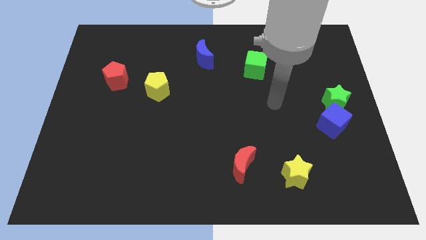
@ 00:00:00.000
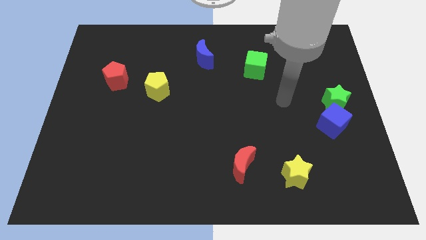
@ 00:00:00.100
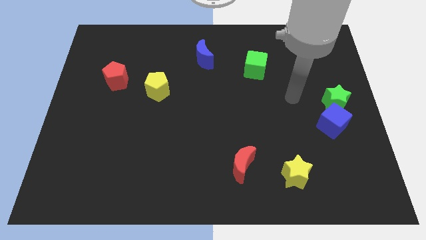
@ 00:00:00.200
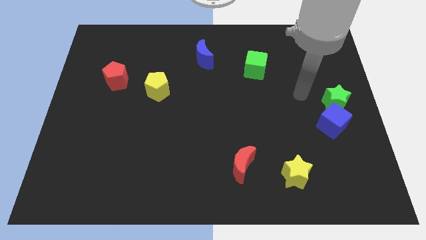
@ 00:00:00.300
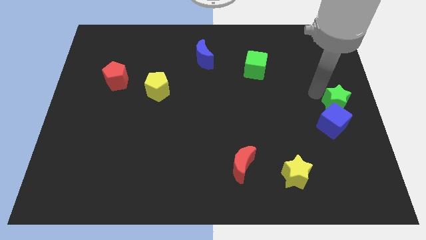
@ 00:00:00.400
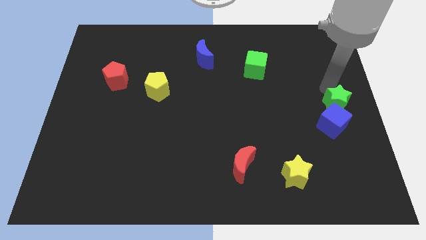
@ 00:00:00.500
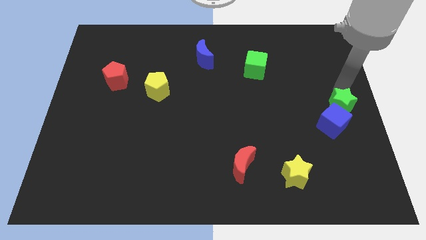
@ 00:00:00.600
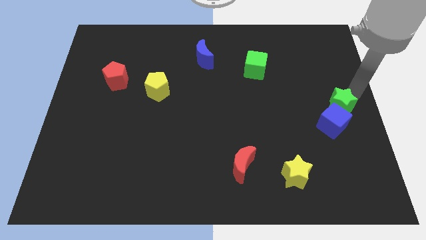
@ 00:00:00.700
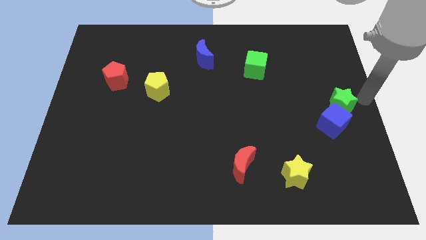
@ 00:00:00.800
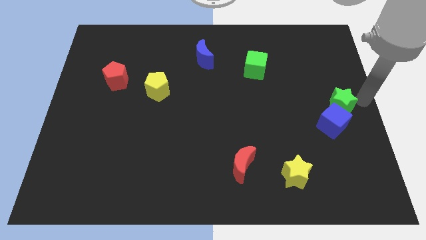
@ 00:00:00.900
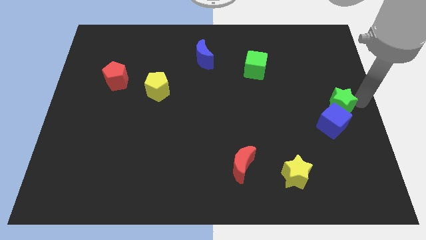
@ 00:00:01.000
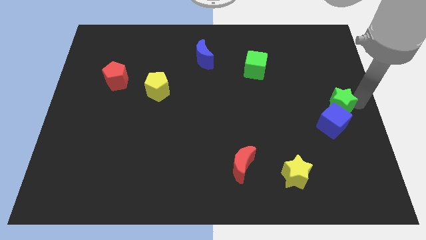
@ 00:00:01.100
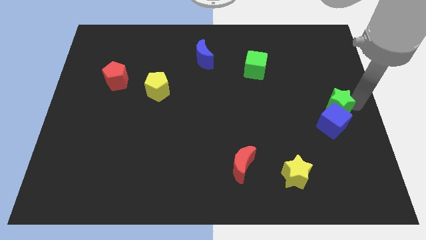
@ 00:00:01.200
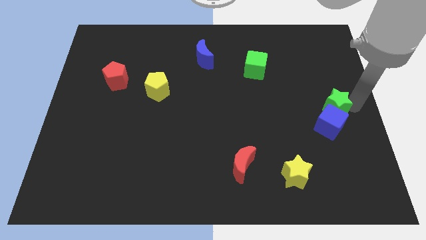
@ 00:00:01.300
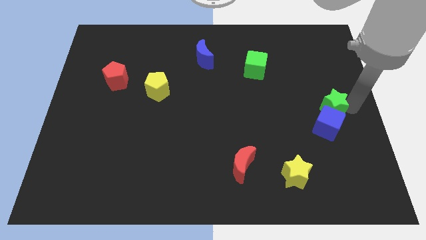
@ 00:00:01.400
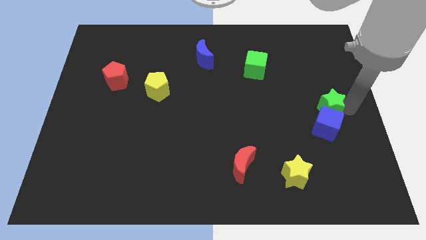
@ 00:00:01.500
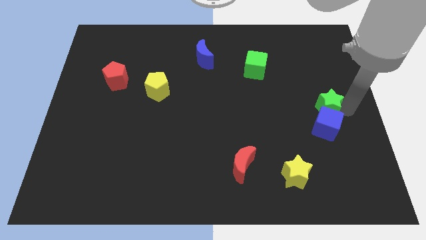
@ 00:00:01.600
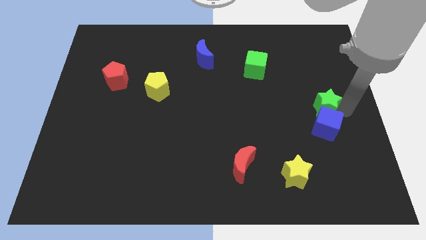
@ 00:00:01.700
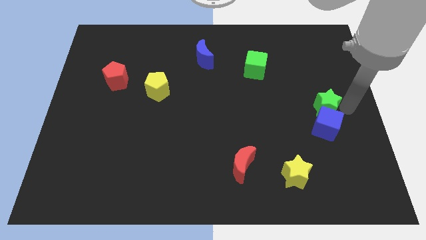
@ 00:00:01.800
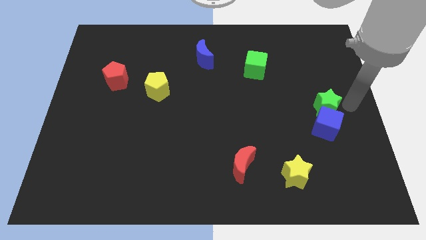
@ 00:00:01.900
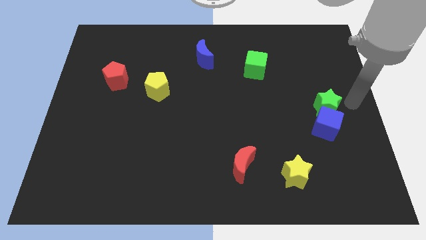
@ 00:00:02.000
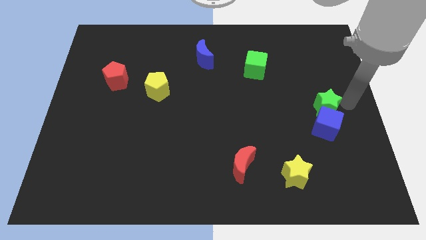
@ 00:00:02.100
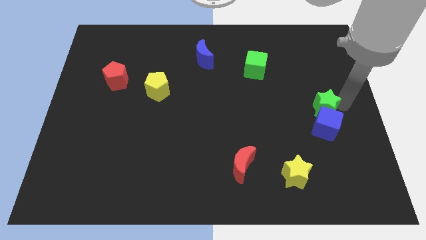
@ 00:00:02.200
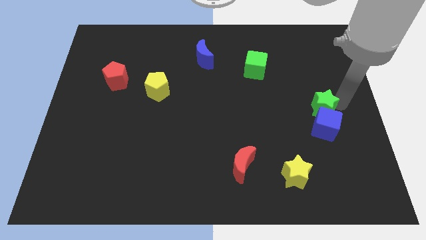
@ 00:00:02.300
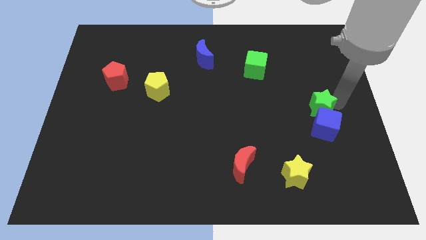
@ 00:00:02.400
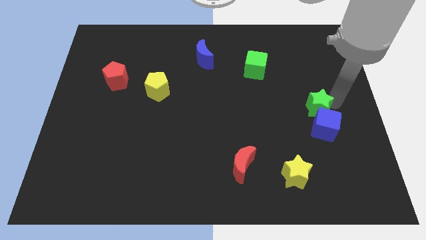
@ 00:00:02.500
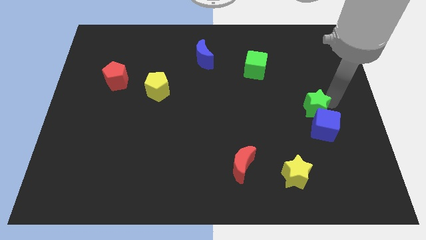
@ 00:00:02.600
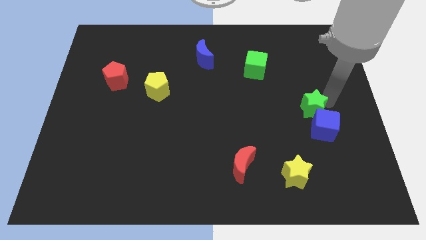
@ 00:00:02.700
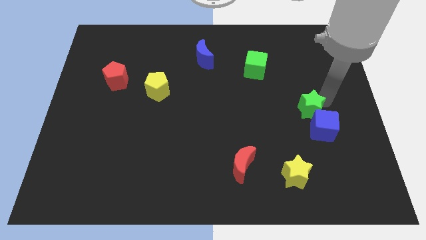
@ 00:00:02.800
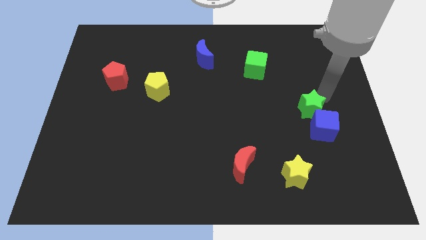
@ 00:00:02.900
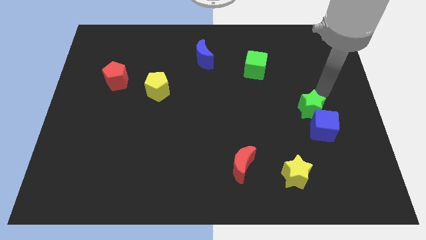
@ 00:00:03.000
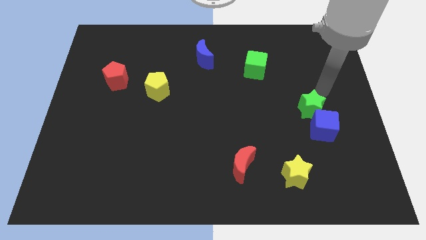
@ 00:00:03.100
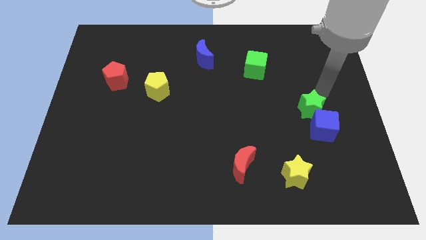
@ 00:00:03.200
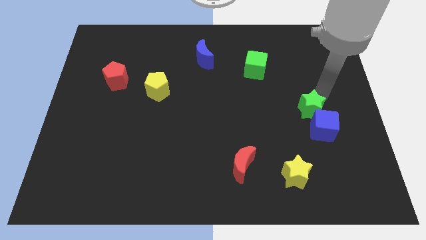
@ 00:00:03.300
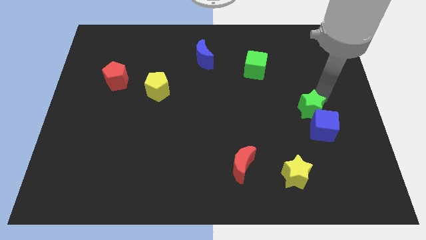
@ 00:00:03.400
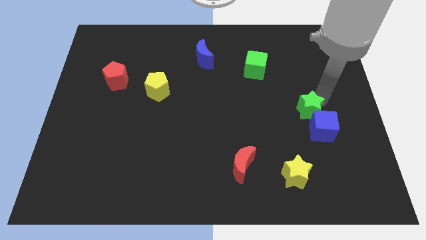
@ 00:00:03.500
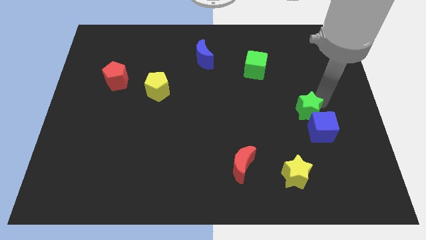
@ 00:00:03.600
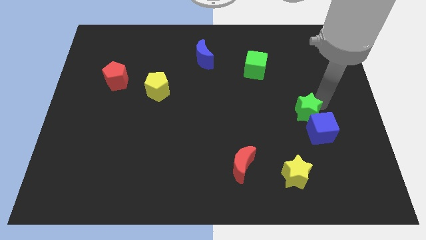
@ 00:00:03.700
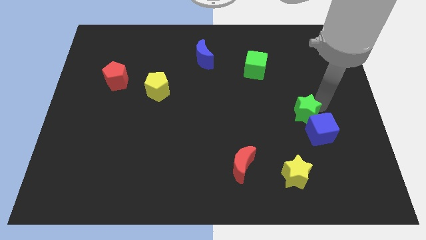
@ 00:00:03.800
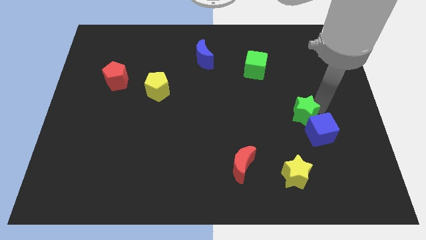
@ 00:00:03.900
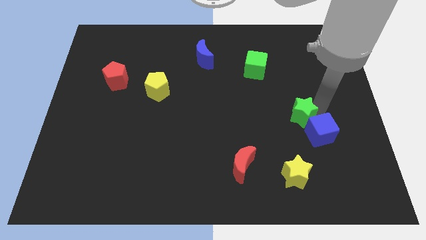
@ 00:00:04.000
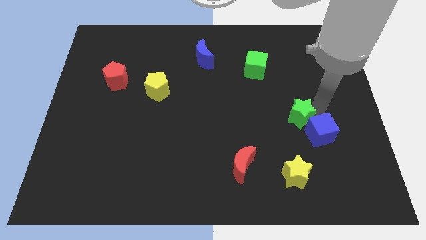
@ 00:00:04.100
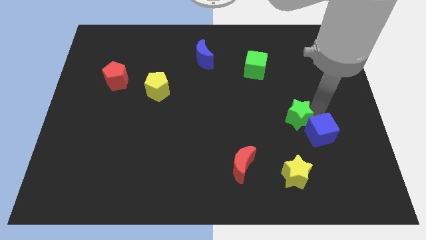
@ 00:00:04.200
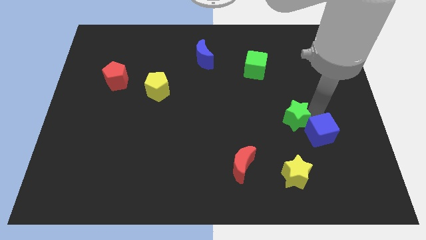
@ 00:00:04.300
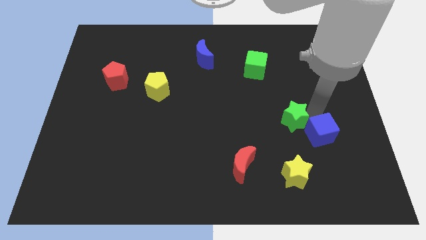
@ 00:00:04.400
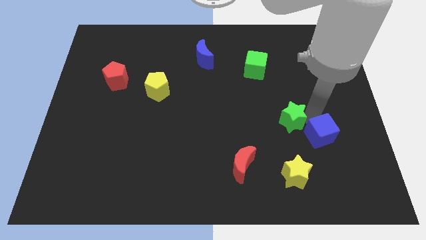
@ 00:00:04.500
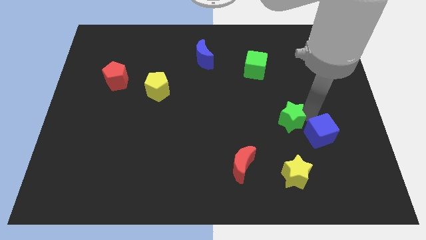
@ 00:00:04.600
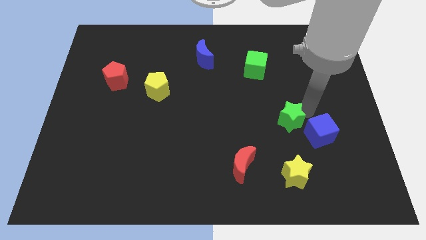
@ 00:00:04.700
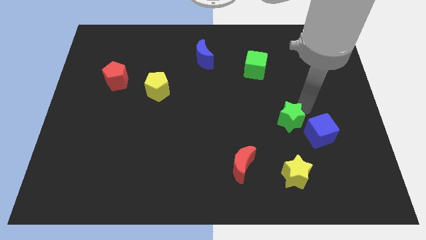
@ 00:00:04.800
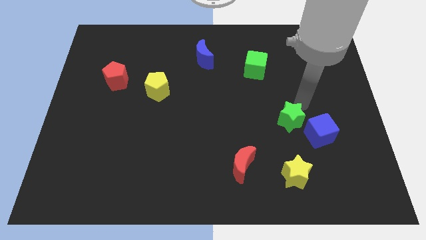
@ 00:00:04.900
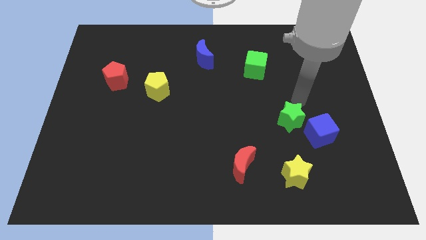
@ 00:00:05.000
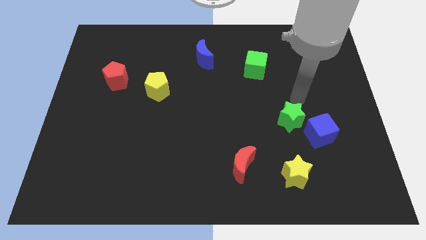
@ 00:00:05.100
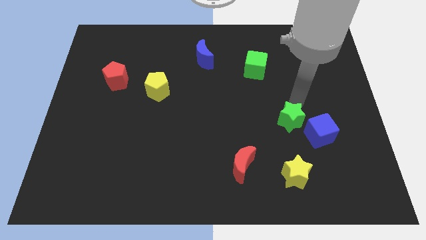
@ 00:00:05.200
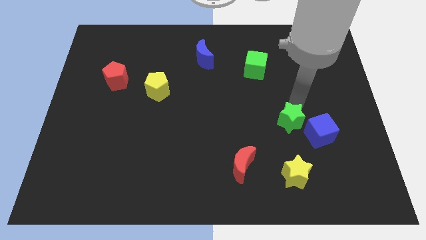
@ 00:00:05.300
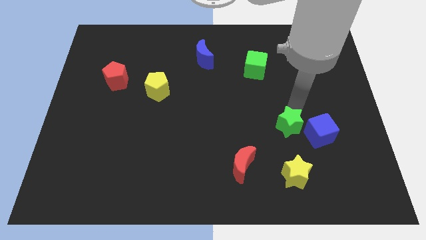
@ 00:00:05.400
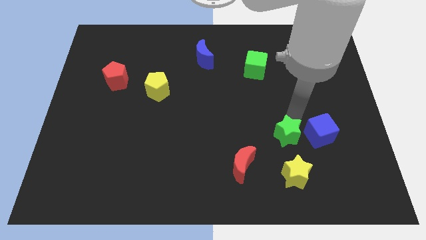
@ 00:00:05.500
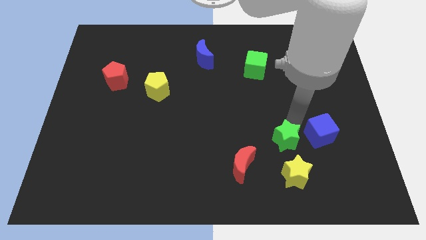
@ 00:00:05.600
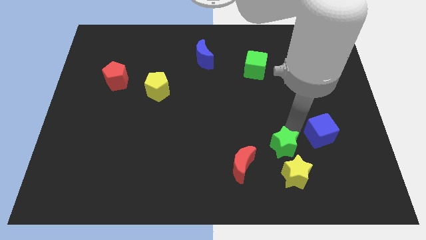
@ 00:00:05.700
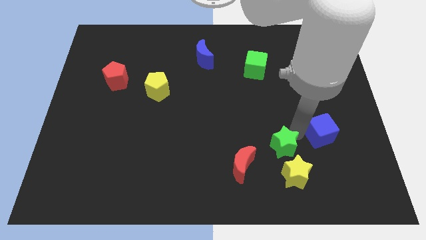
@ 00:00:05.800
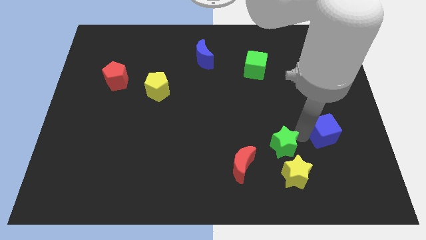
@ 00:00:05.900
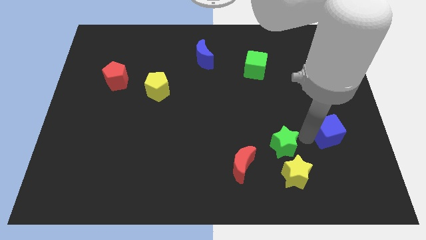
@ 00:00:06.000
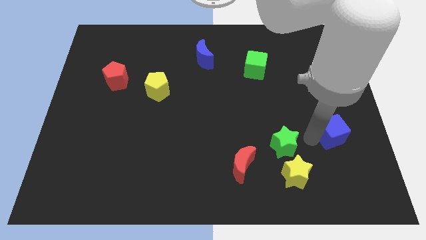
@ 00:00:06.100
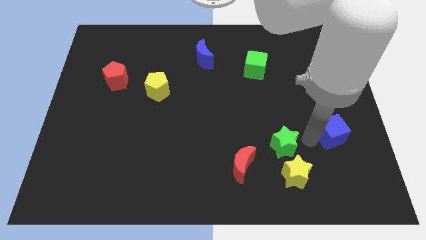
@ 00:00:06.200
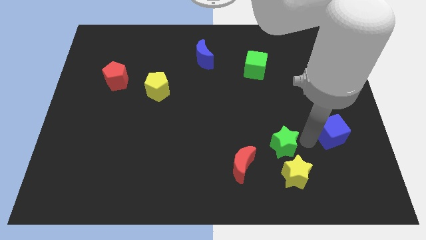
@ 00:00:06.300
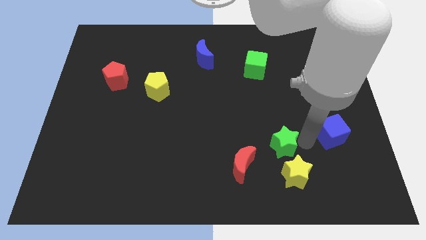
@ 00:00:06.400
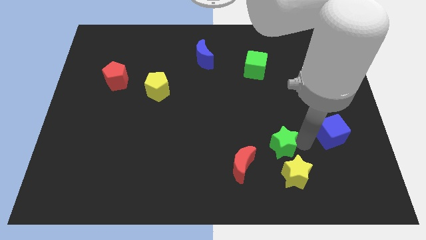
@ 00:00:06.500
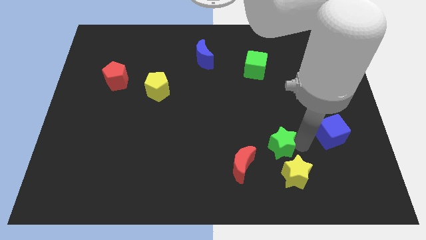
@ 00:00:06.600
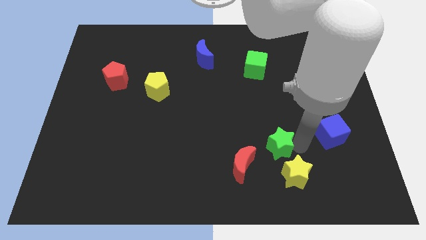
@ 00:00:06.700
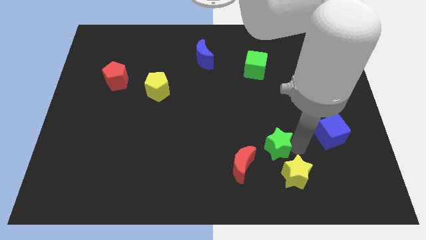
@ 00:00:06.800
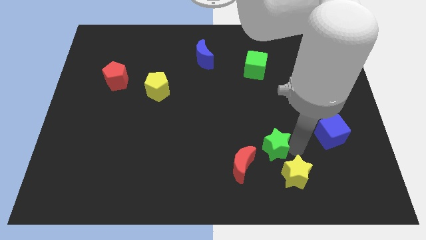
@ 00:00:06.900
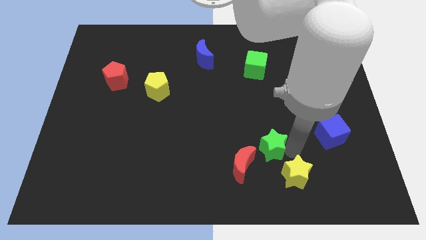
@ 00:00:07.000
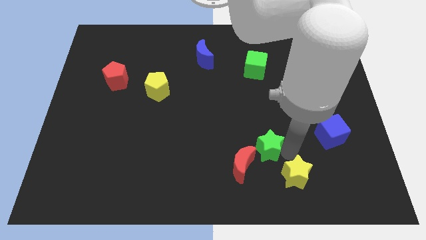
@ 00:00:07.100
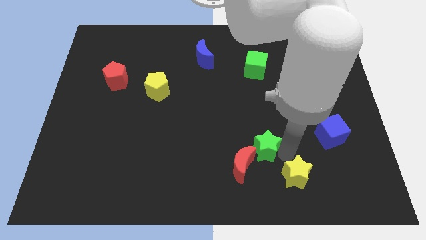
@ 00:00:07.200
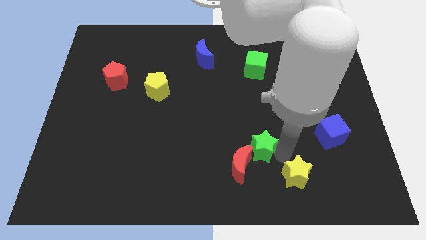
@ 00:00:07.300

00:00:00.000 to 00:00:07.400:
push the green star next to the red moon
